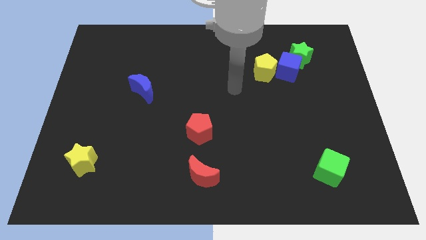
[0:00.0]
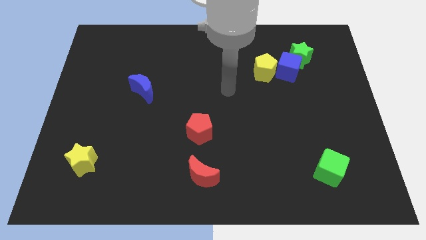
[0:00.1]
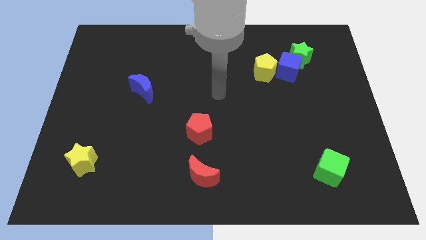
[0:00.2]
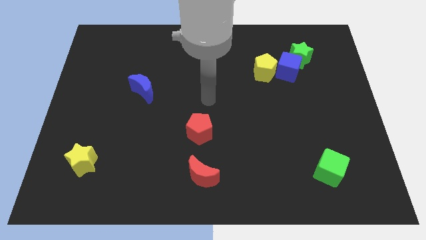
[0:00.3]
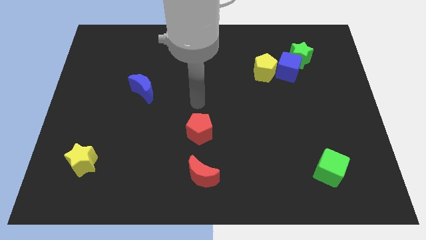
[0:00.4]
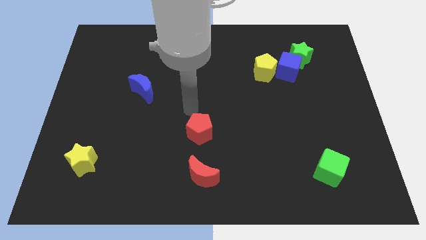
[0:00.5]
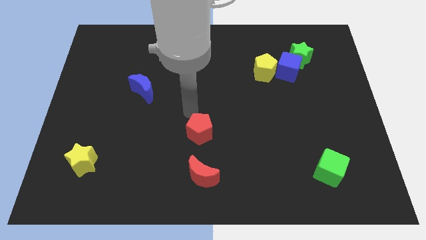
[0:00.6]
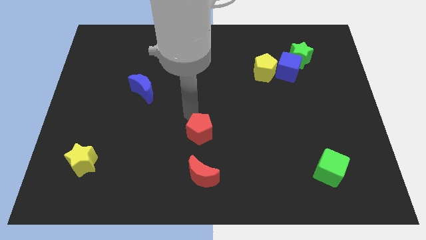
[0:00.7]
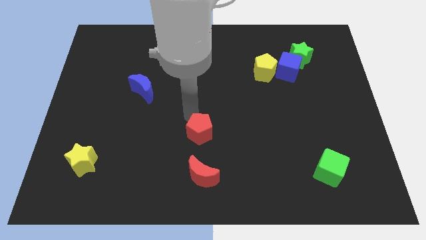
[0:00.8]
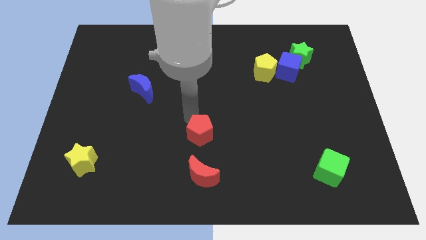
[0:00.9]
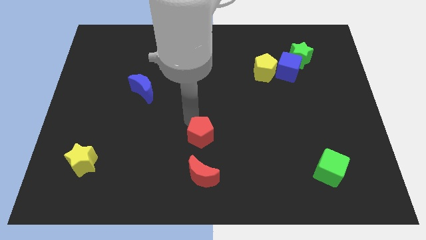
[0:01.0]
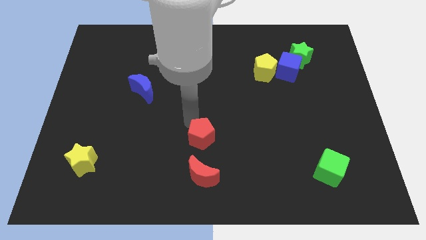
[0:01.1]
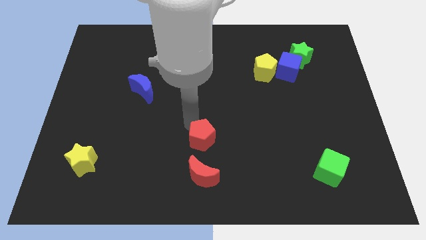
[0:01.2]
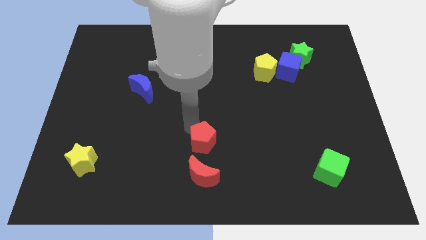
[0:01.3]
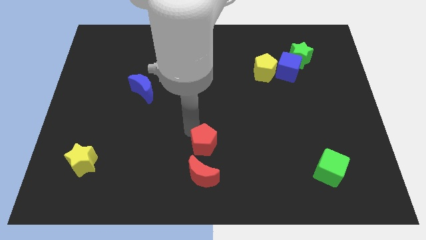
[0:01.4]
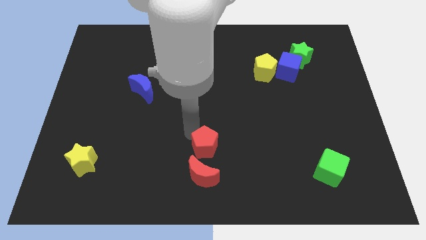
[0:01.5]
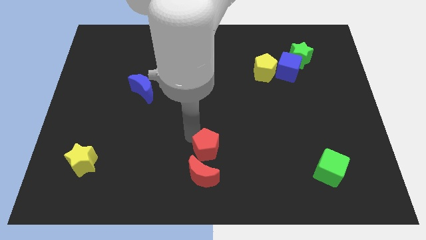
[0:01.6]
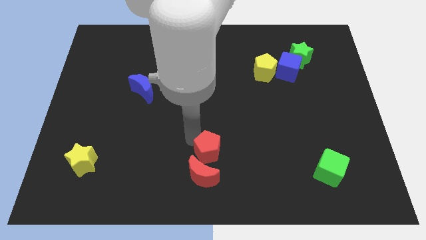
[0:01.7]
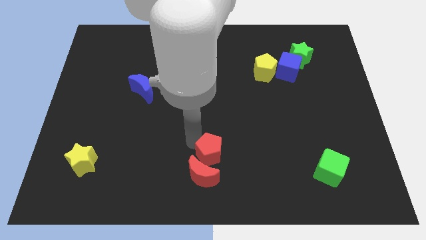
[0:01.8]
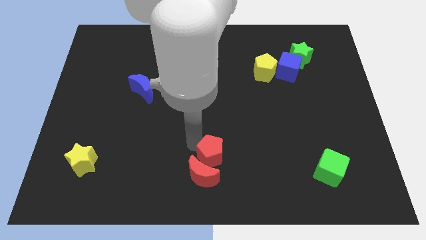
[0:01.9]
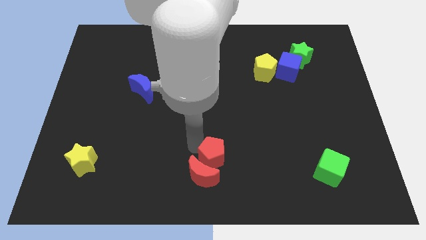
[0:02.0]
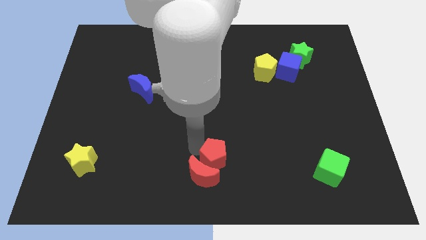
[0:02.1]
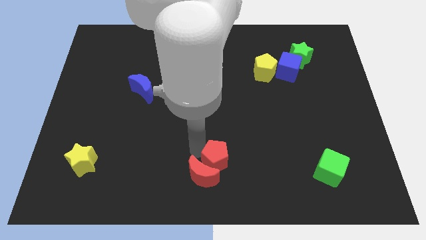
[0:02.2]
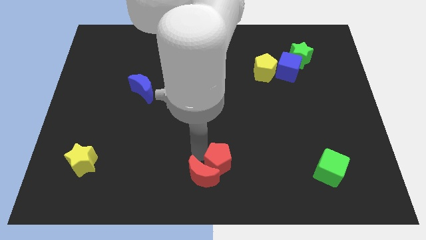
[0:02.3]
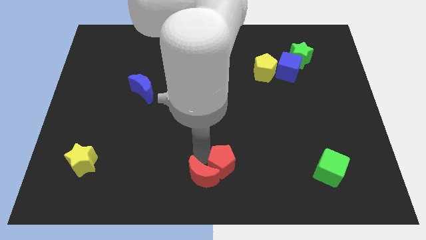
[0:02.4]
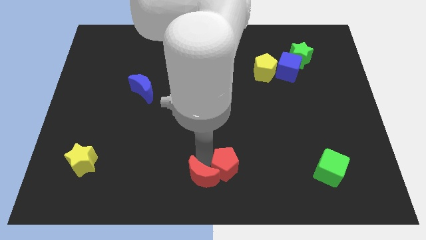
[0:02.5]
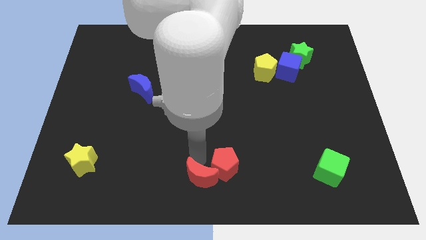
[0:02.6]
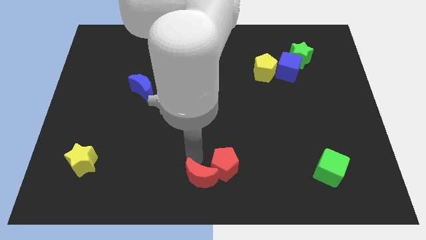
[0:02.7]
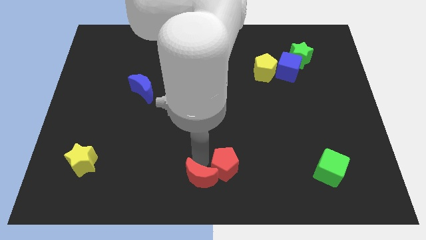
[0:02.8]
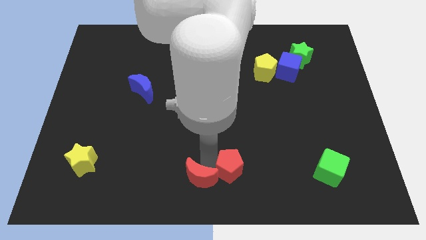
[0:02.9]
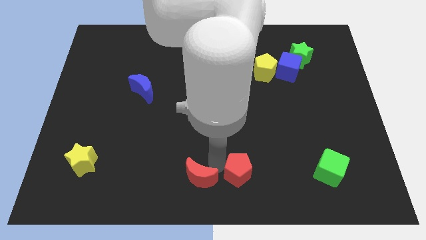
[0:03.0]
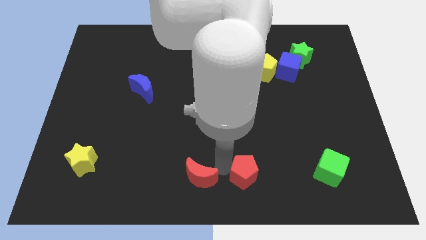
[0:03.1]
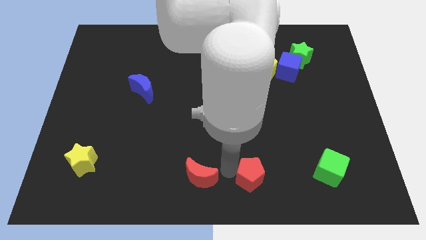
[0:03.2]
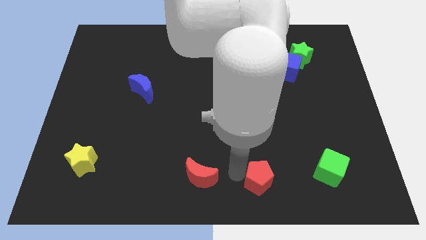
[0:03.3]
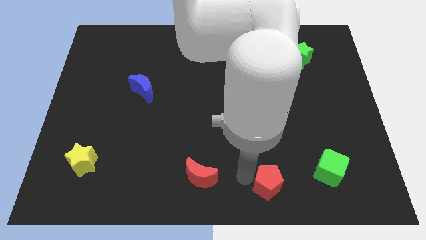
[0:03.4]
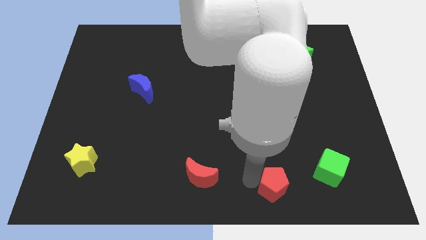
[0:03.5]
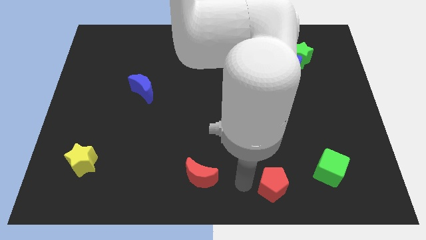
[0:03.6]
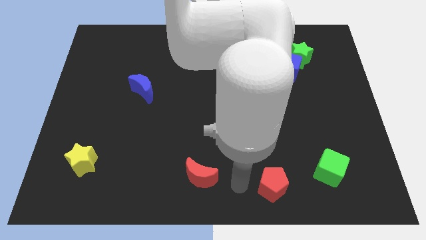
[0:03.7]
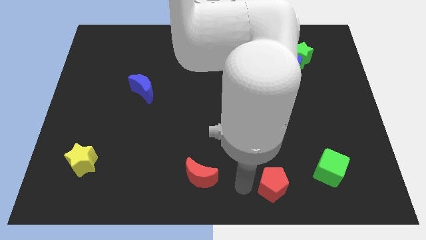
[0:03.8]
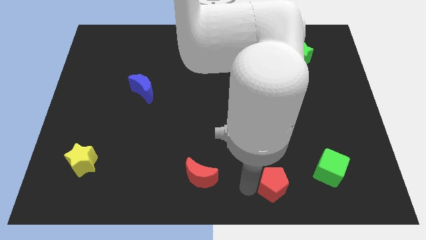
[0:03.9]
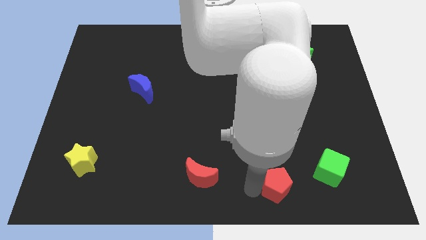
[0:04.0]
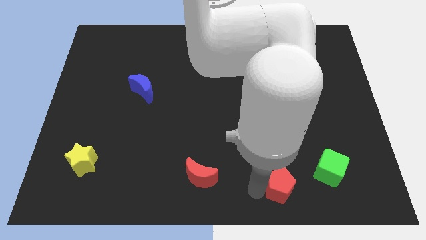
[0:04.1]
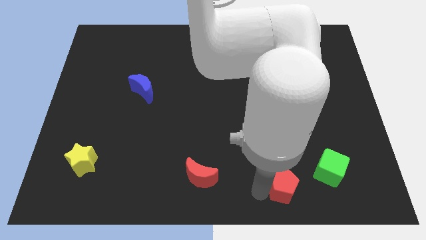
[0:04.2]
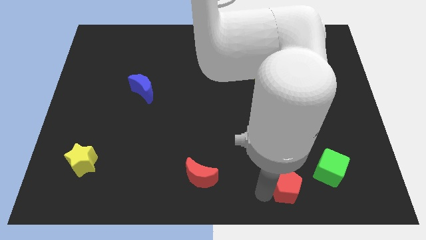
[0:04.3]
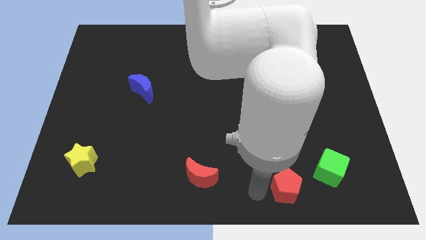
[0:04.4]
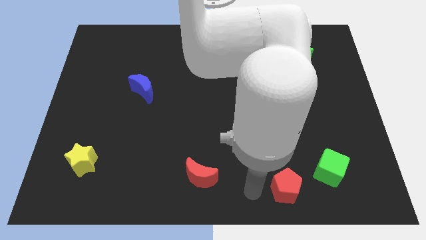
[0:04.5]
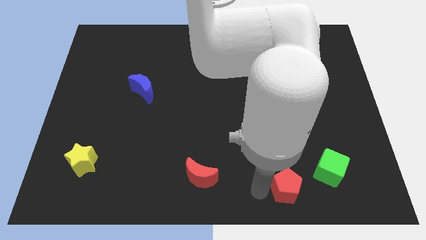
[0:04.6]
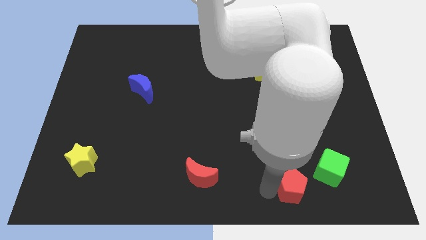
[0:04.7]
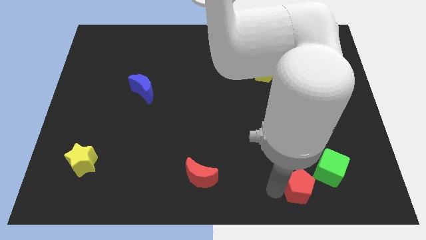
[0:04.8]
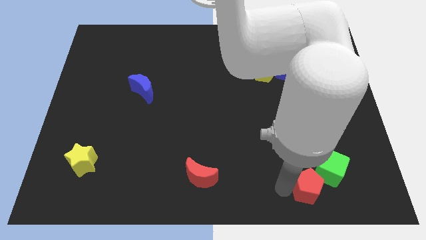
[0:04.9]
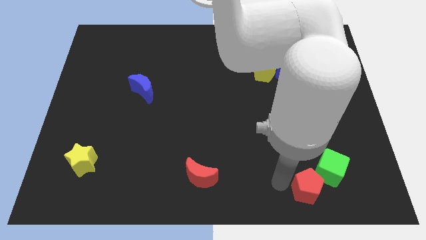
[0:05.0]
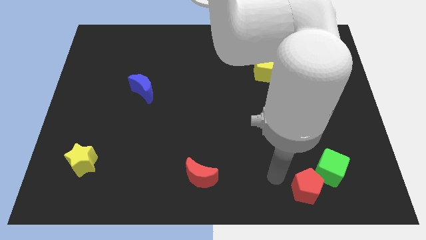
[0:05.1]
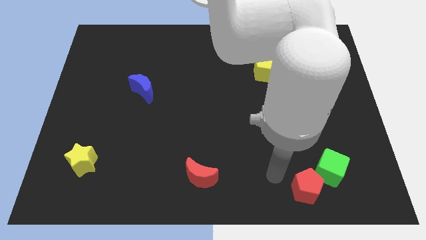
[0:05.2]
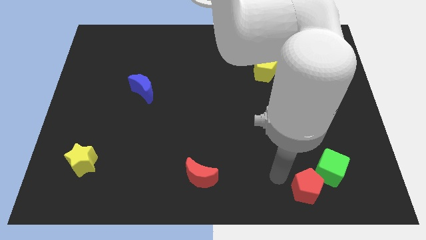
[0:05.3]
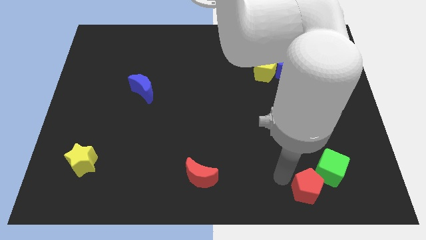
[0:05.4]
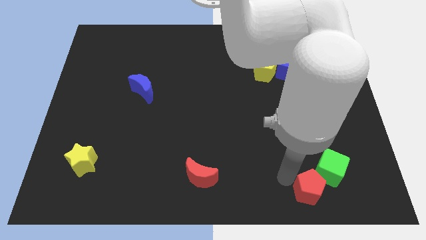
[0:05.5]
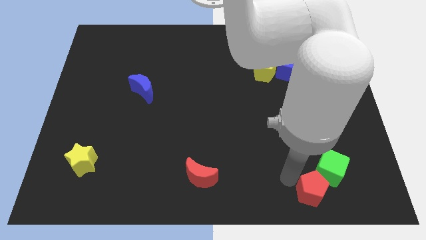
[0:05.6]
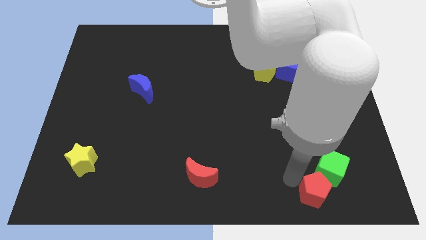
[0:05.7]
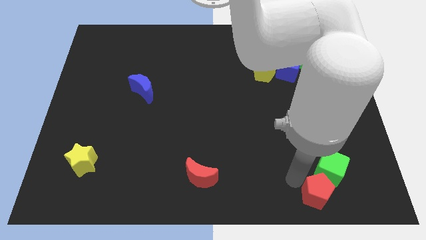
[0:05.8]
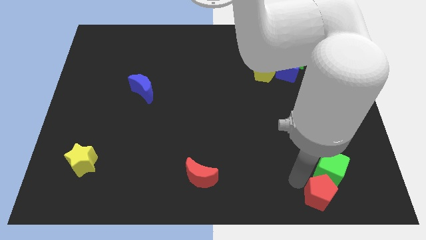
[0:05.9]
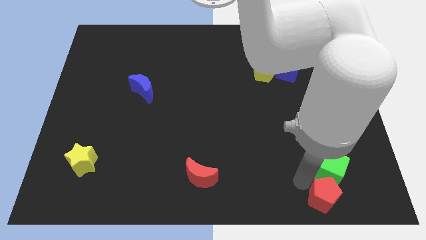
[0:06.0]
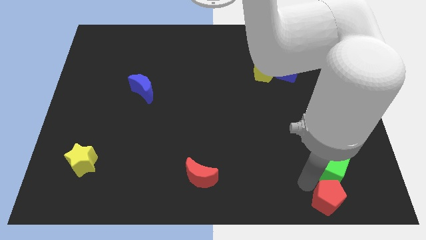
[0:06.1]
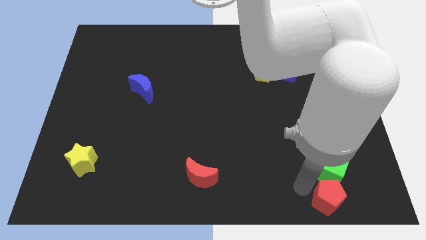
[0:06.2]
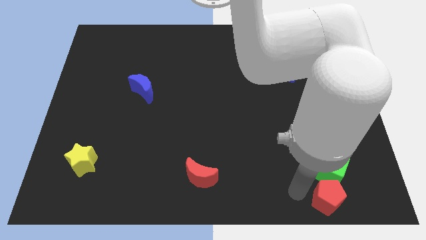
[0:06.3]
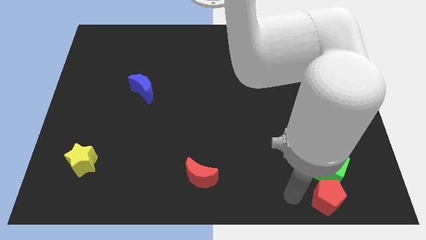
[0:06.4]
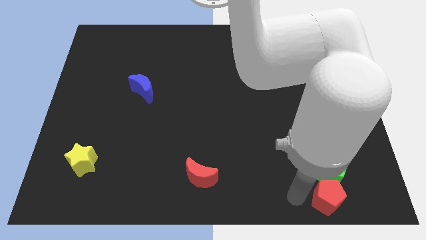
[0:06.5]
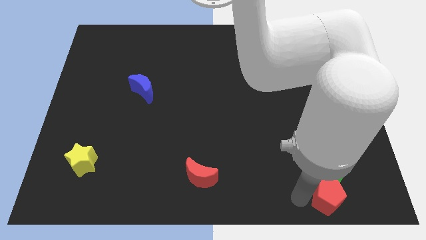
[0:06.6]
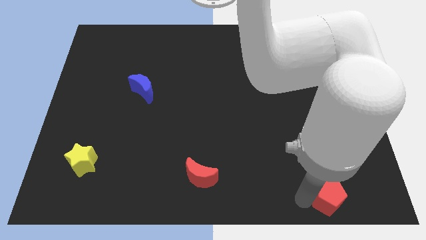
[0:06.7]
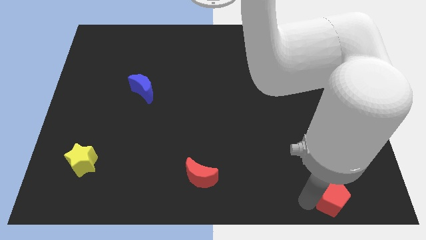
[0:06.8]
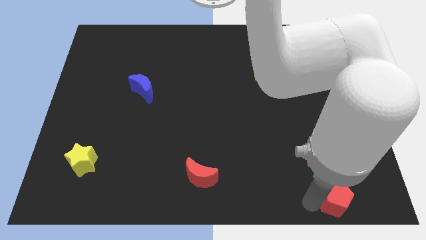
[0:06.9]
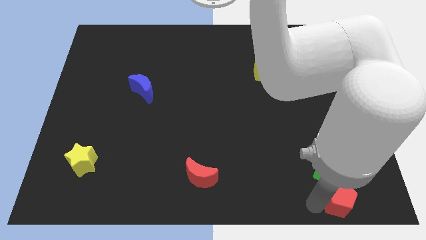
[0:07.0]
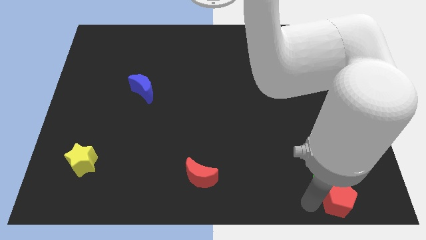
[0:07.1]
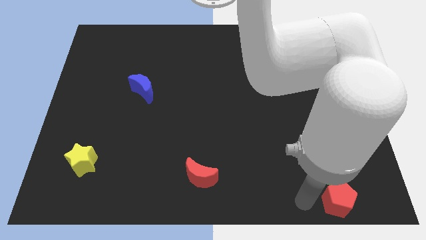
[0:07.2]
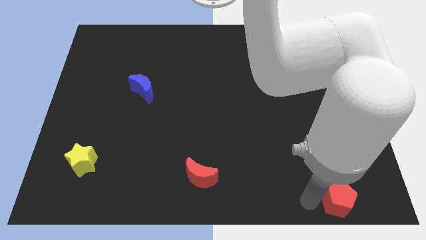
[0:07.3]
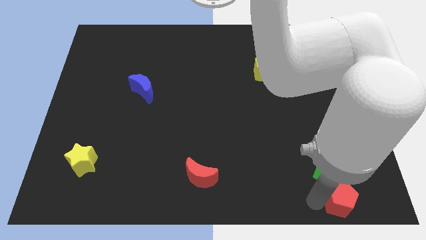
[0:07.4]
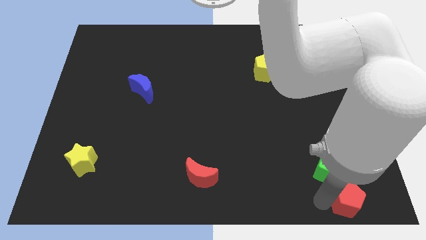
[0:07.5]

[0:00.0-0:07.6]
slide the red pentagon to the bottom right corner

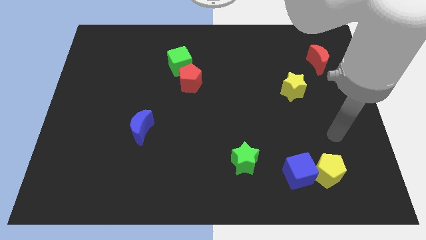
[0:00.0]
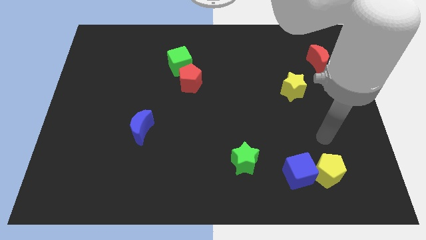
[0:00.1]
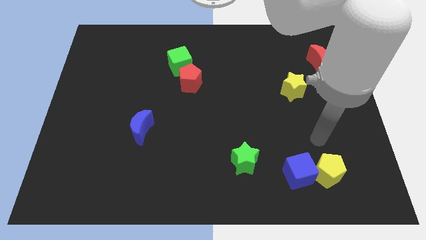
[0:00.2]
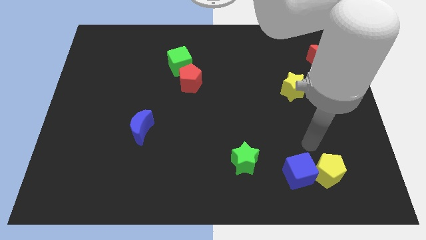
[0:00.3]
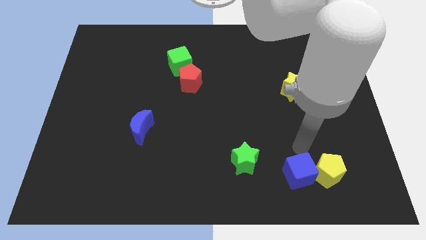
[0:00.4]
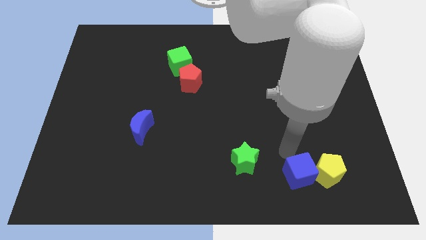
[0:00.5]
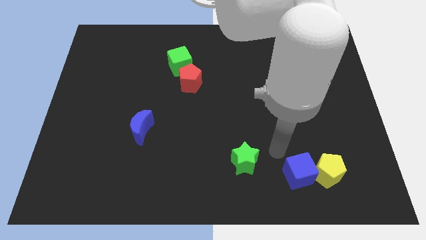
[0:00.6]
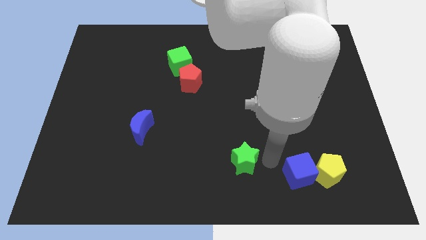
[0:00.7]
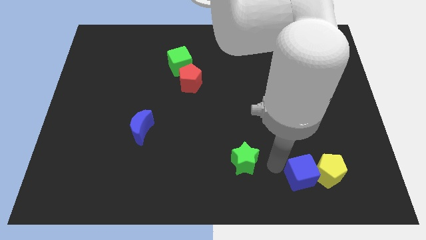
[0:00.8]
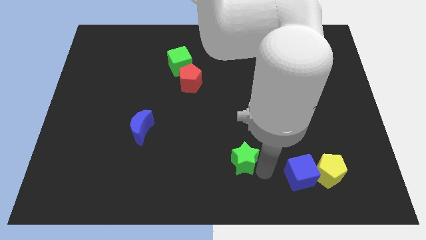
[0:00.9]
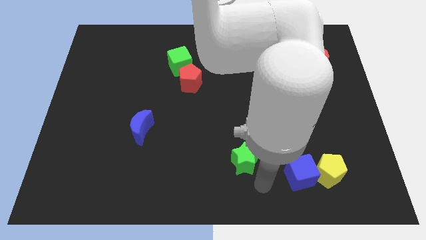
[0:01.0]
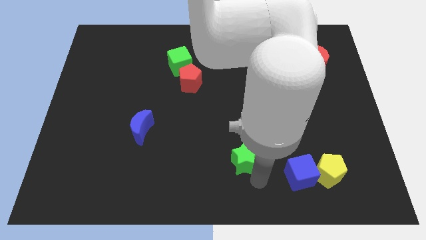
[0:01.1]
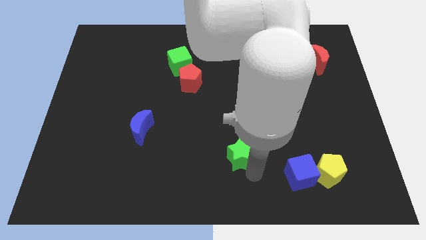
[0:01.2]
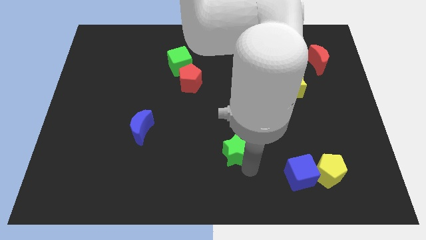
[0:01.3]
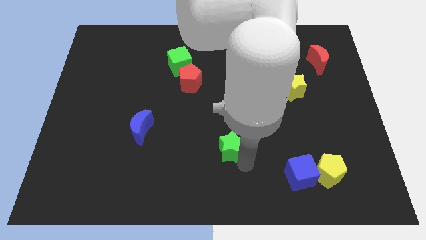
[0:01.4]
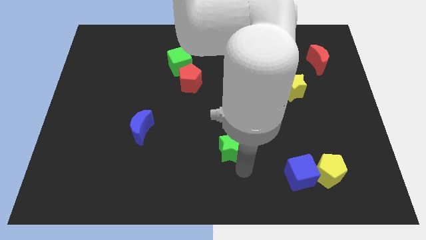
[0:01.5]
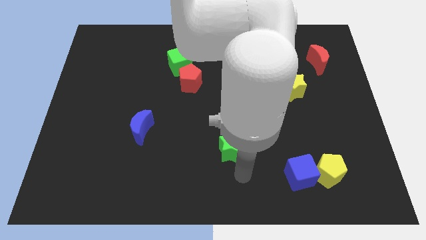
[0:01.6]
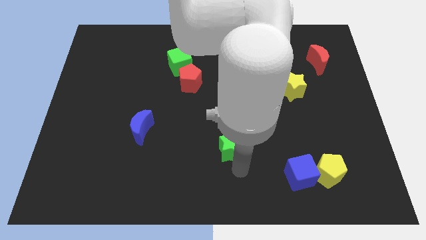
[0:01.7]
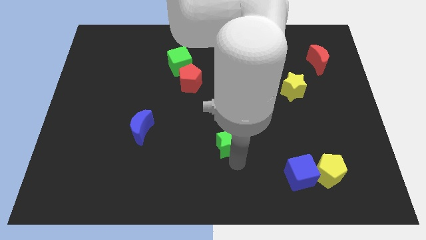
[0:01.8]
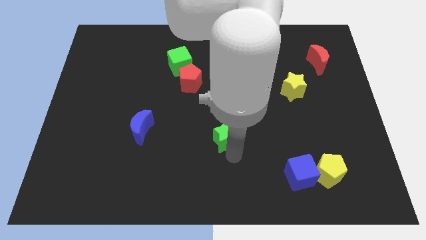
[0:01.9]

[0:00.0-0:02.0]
push the green star to the middle
